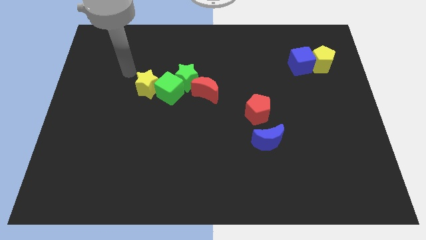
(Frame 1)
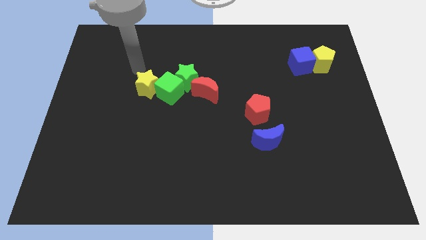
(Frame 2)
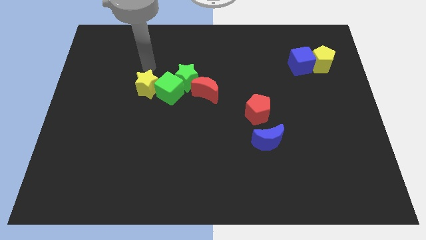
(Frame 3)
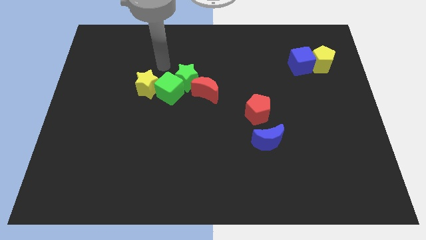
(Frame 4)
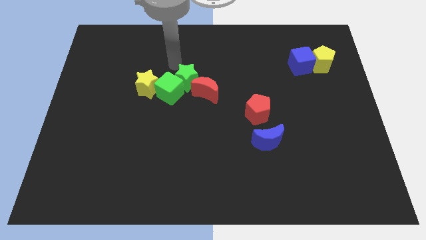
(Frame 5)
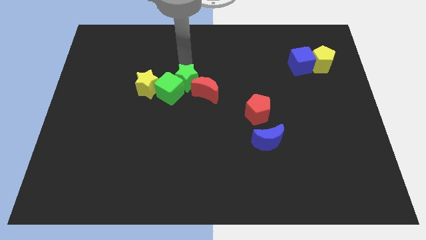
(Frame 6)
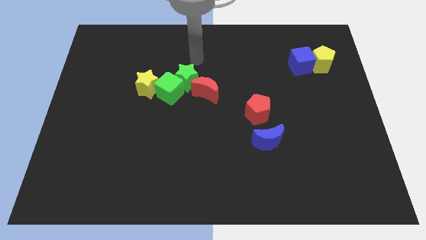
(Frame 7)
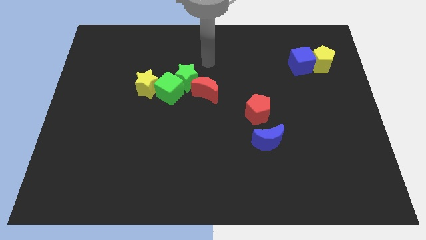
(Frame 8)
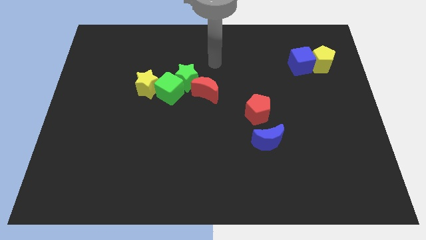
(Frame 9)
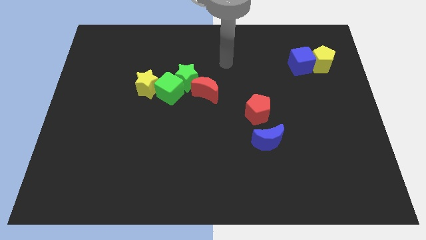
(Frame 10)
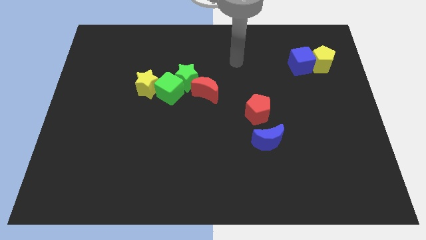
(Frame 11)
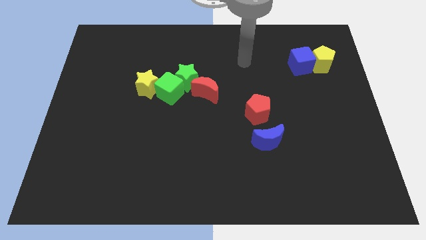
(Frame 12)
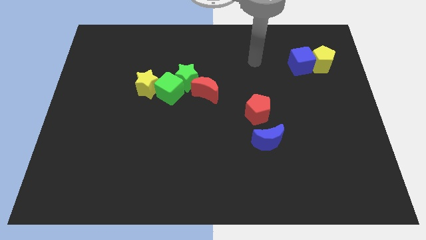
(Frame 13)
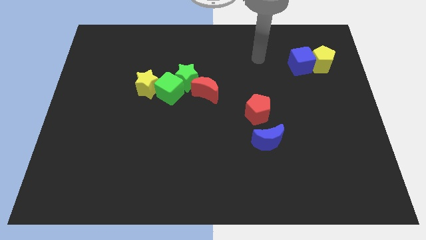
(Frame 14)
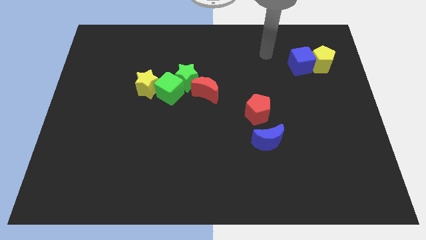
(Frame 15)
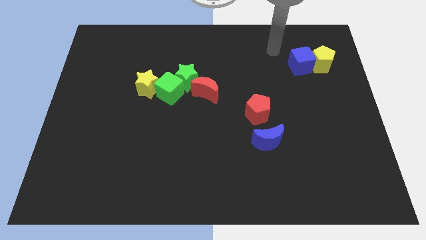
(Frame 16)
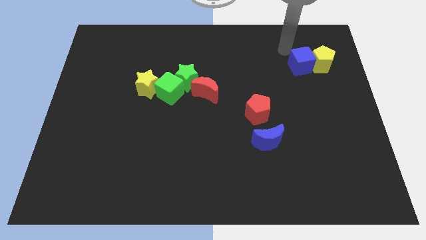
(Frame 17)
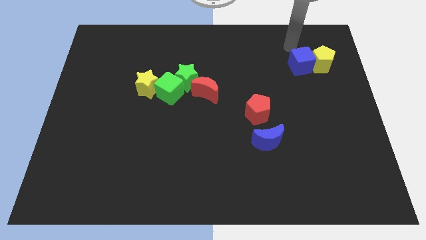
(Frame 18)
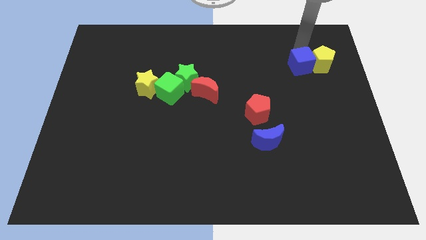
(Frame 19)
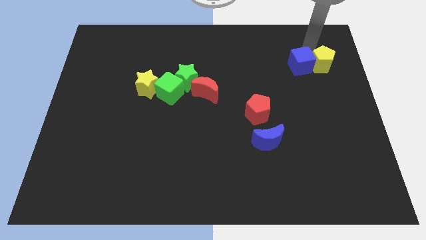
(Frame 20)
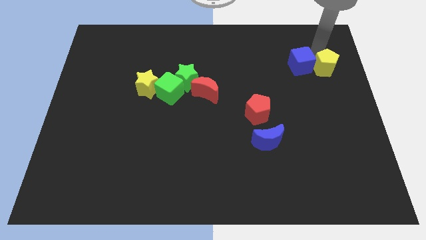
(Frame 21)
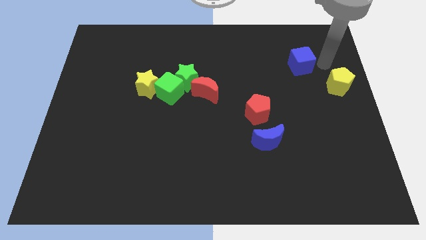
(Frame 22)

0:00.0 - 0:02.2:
pull the blue cube apart from the yellow pentagon

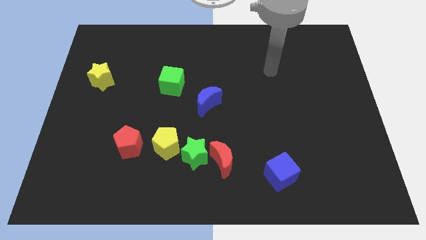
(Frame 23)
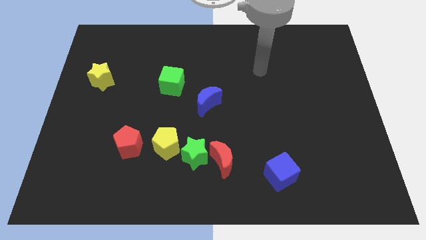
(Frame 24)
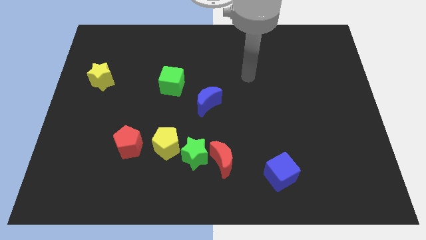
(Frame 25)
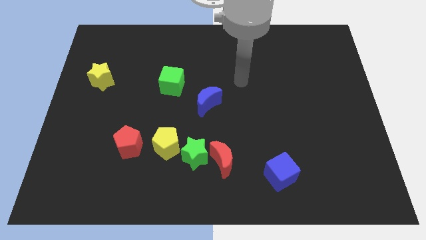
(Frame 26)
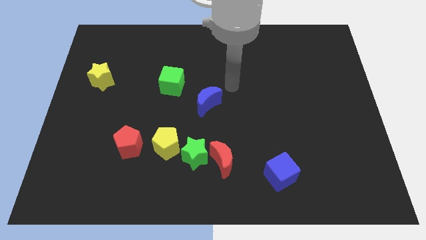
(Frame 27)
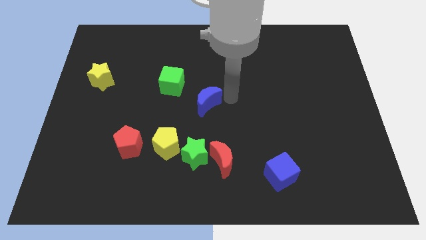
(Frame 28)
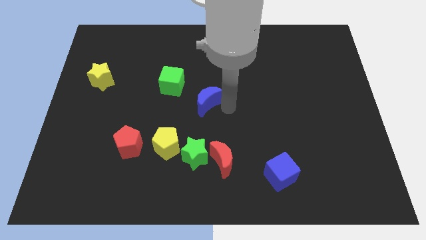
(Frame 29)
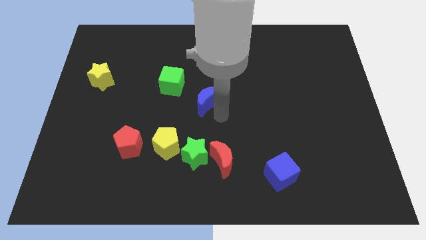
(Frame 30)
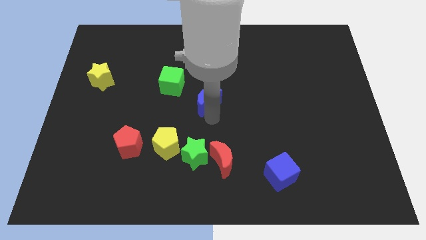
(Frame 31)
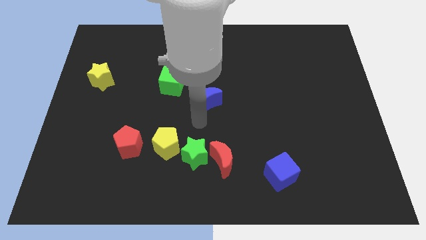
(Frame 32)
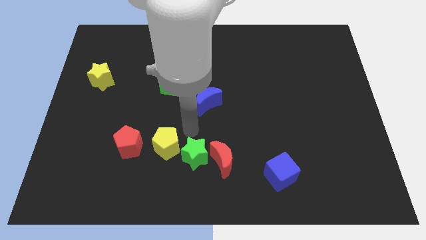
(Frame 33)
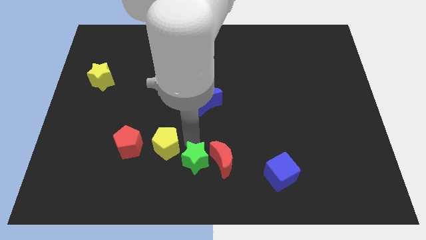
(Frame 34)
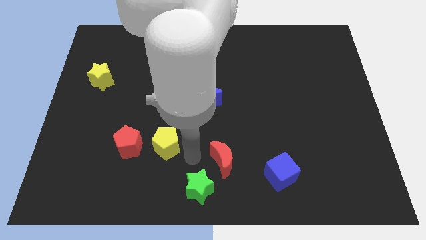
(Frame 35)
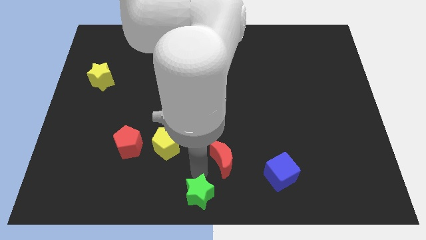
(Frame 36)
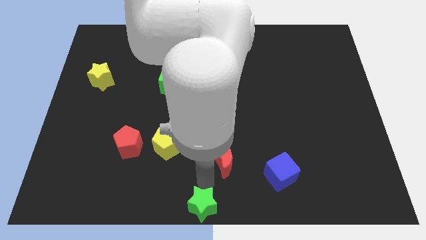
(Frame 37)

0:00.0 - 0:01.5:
separate the red moon from the green star

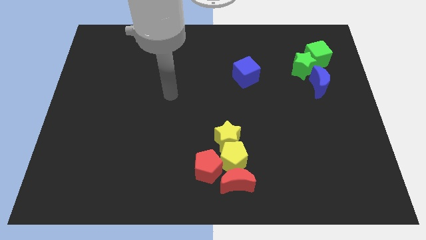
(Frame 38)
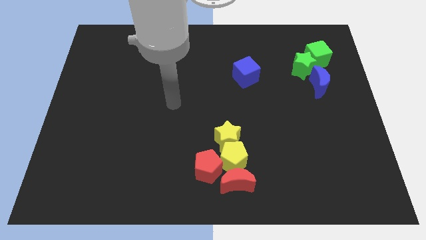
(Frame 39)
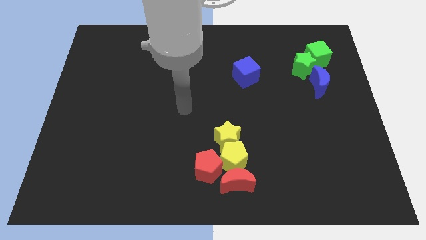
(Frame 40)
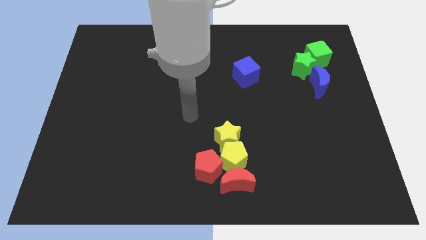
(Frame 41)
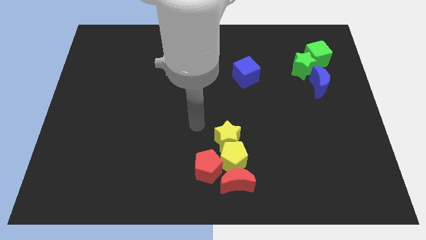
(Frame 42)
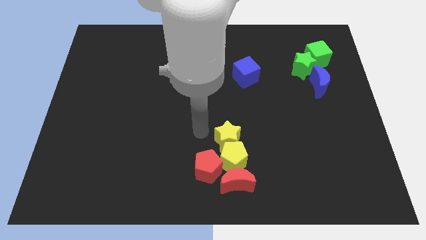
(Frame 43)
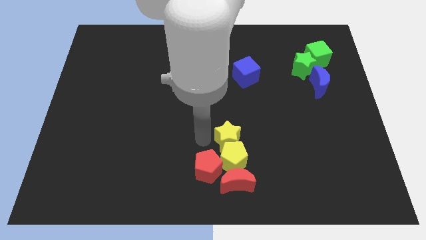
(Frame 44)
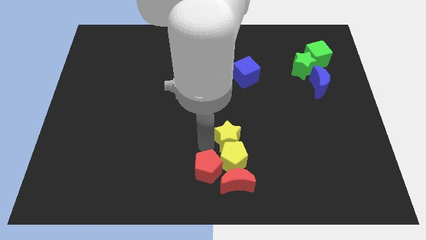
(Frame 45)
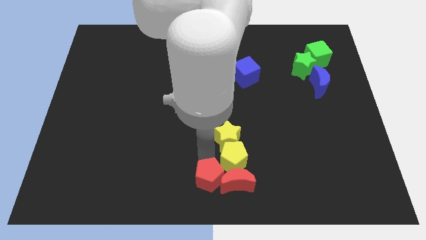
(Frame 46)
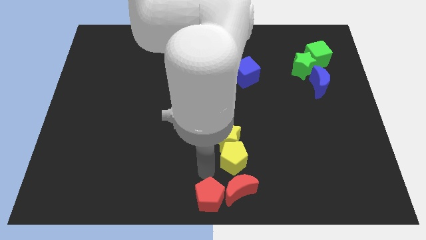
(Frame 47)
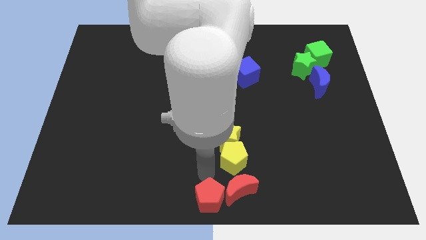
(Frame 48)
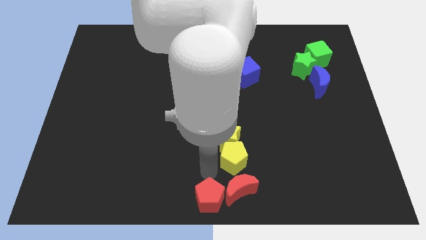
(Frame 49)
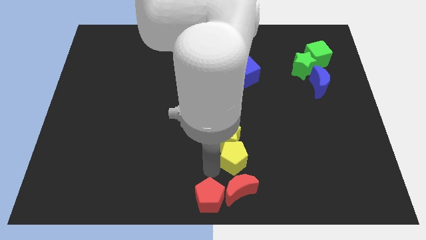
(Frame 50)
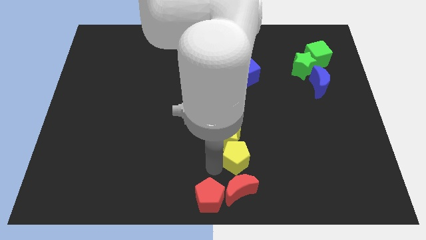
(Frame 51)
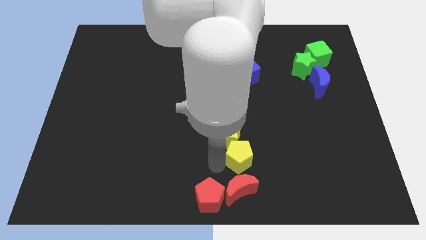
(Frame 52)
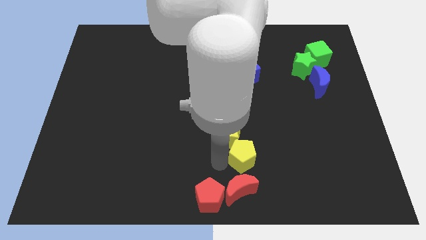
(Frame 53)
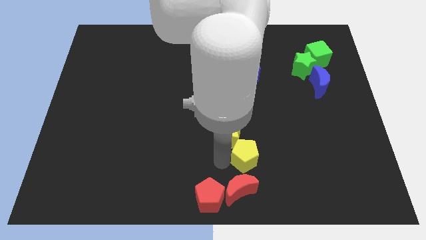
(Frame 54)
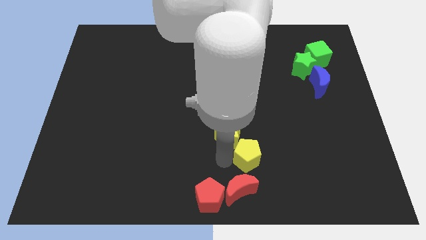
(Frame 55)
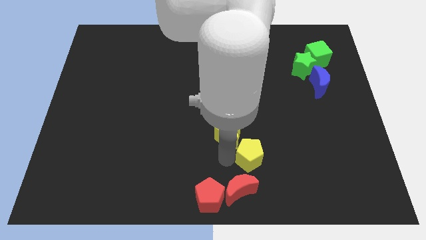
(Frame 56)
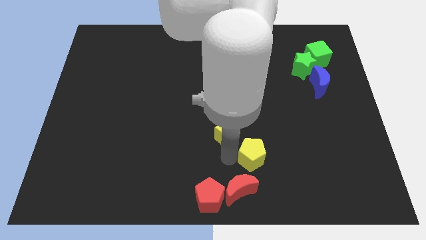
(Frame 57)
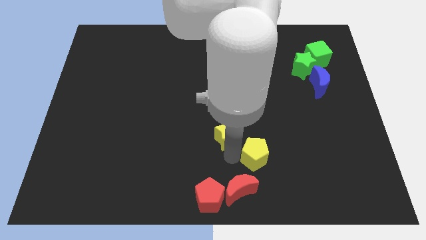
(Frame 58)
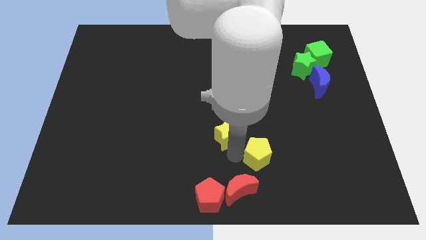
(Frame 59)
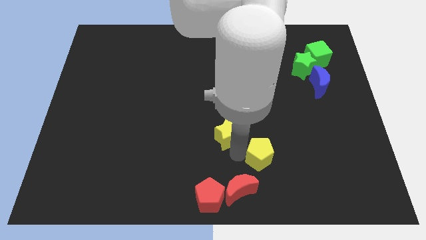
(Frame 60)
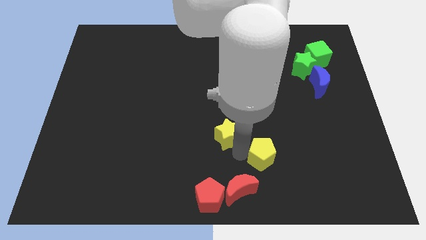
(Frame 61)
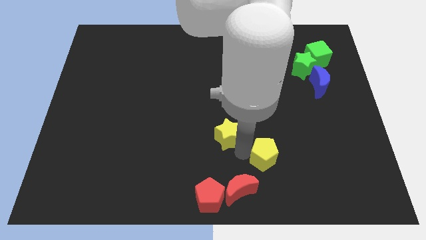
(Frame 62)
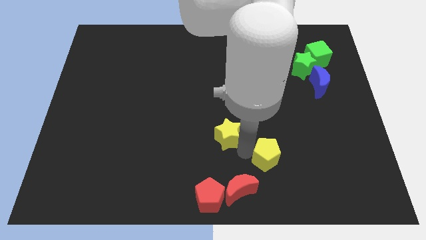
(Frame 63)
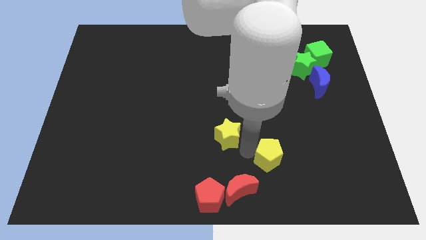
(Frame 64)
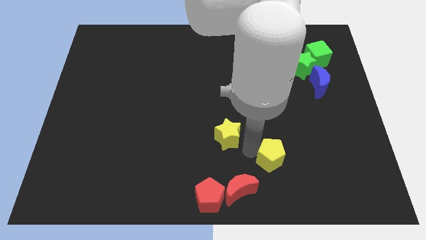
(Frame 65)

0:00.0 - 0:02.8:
pull the yellow pentagon apart from the red moon, yellow star, and red pentagon

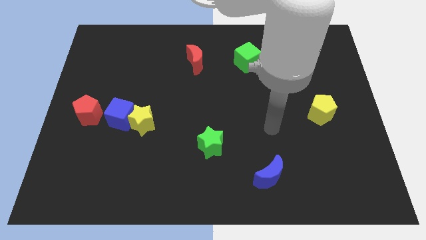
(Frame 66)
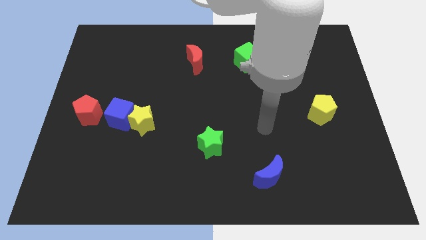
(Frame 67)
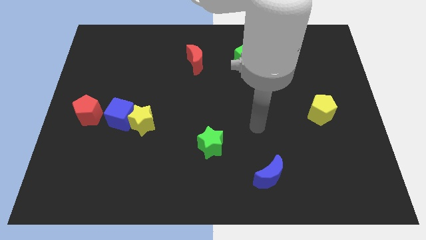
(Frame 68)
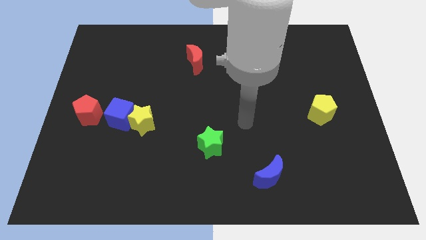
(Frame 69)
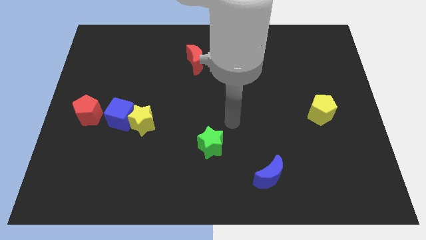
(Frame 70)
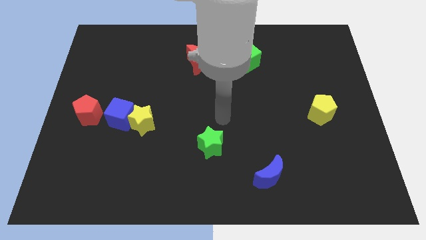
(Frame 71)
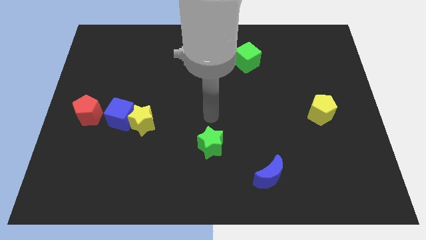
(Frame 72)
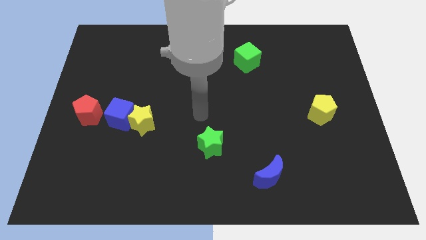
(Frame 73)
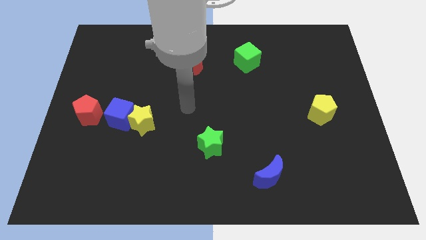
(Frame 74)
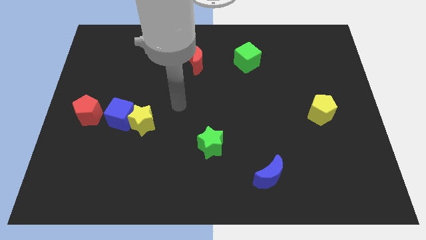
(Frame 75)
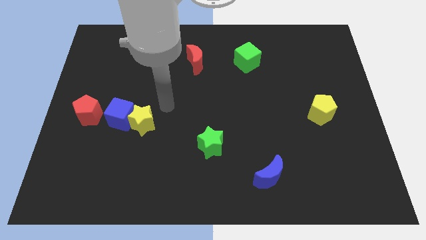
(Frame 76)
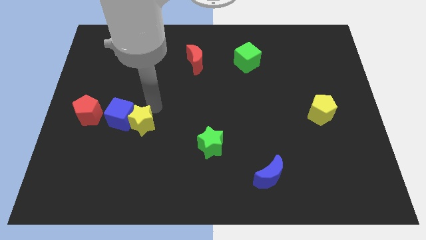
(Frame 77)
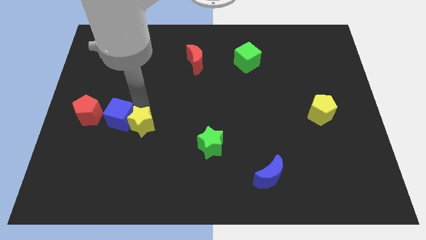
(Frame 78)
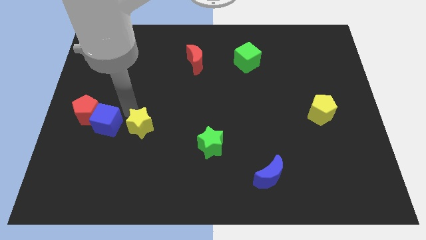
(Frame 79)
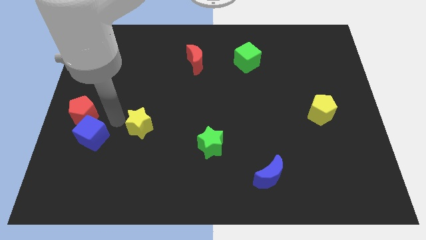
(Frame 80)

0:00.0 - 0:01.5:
pull the yellow star apart from the blue cube

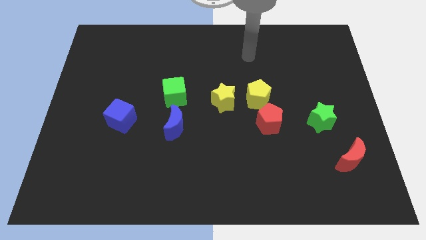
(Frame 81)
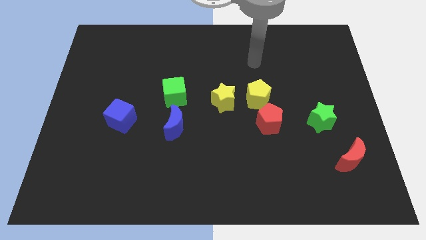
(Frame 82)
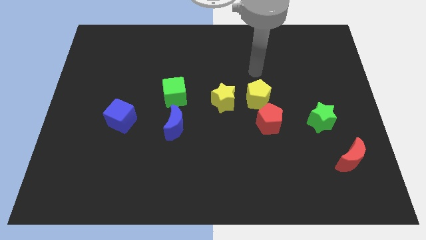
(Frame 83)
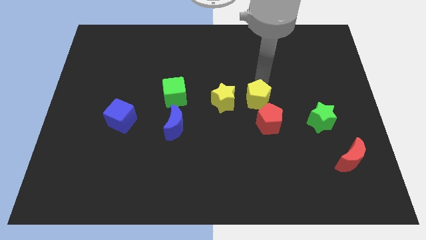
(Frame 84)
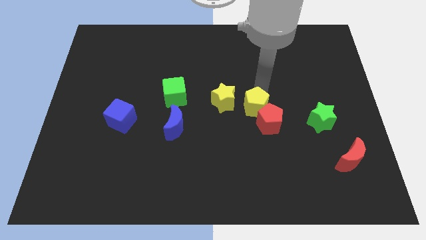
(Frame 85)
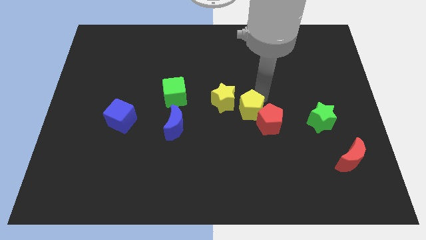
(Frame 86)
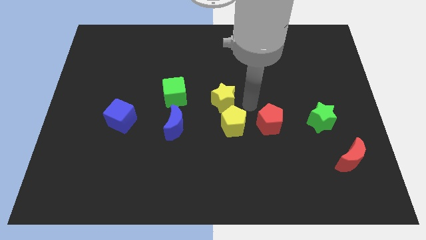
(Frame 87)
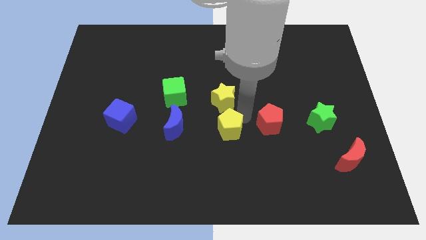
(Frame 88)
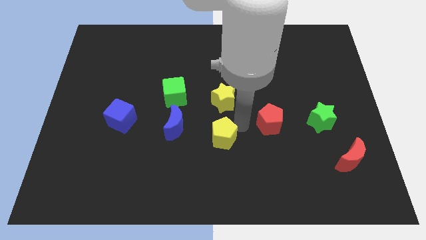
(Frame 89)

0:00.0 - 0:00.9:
move the red pentagon away from the yellow pentagon

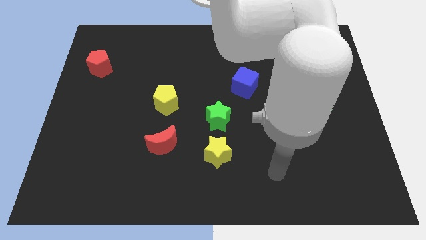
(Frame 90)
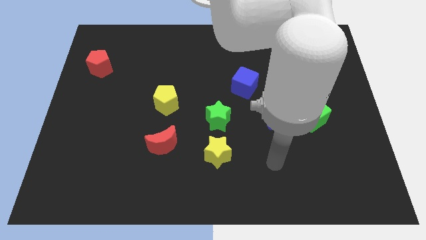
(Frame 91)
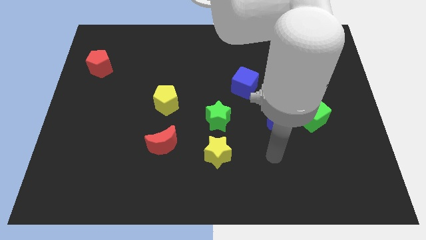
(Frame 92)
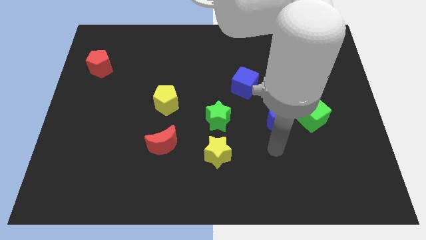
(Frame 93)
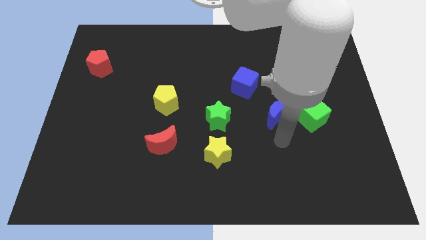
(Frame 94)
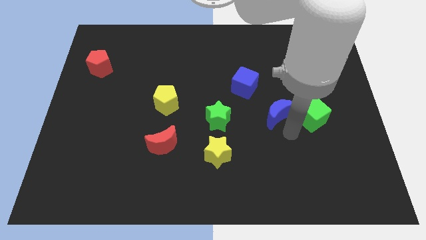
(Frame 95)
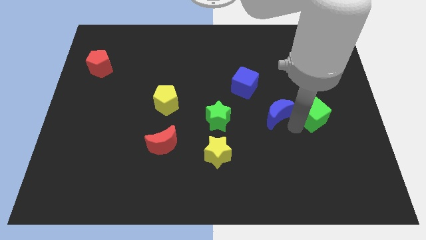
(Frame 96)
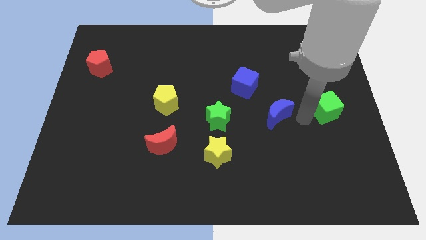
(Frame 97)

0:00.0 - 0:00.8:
move the blue moon away from the green cube
